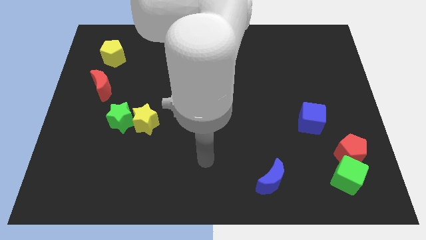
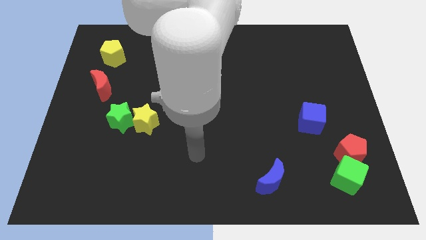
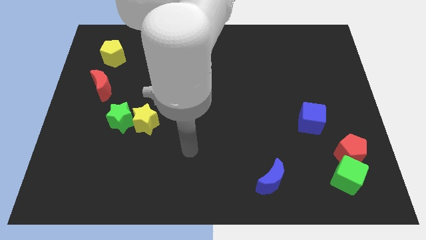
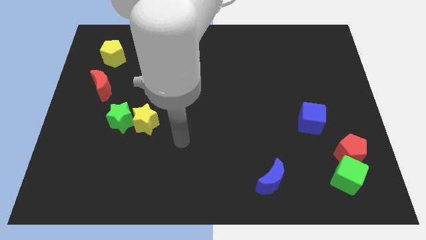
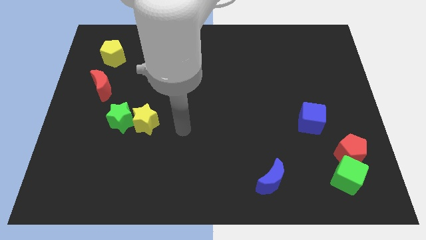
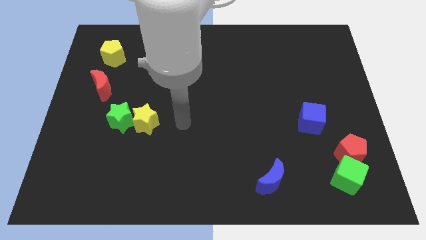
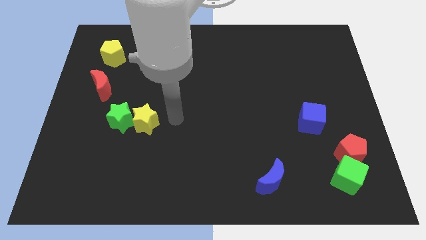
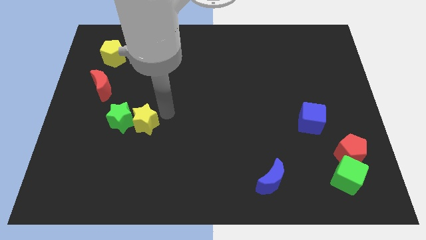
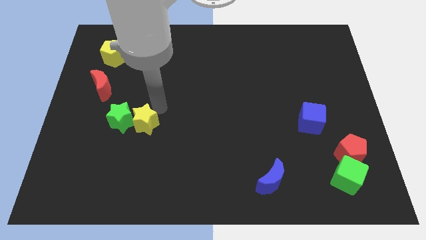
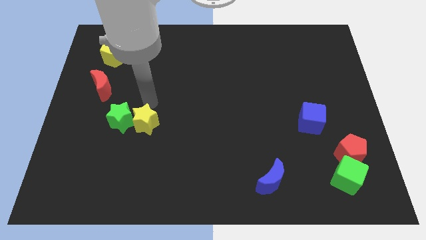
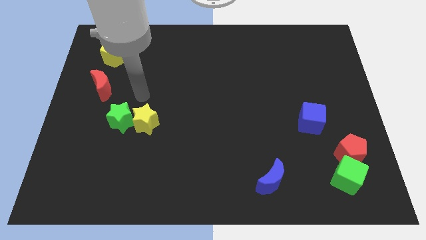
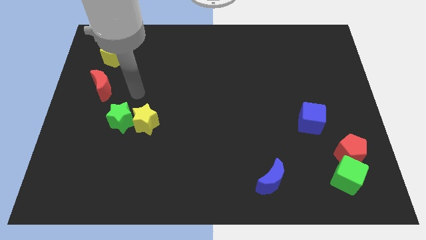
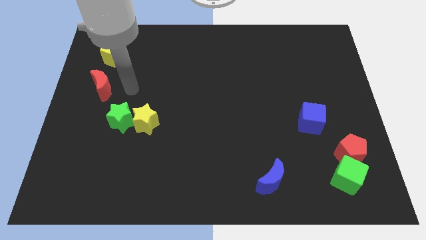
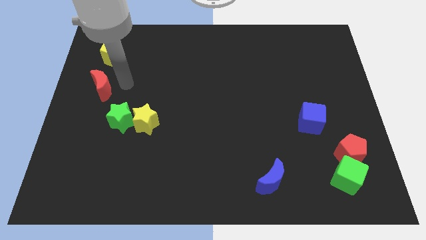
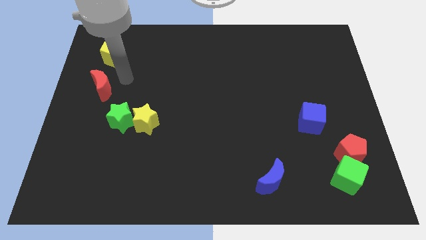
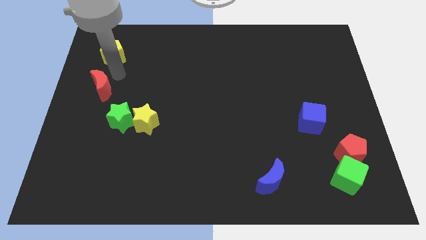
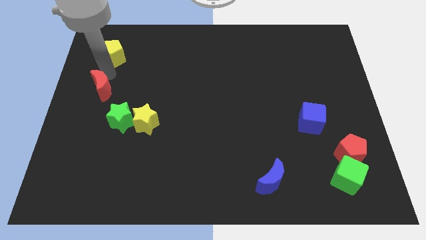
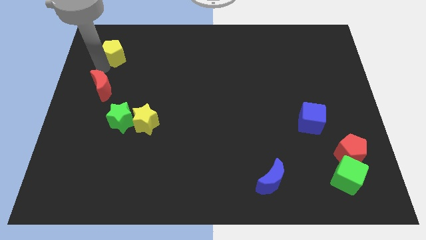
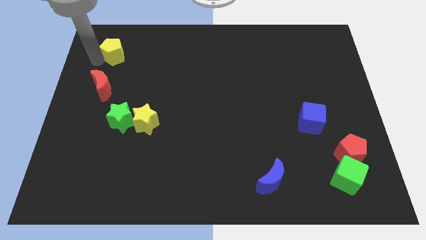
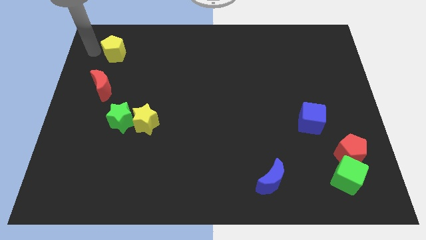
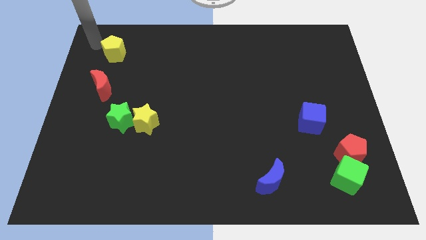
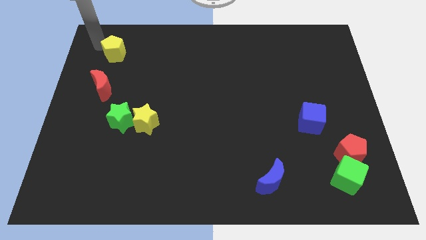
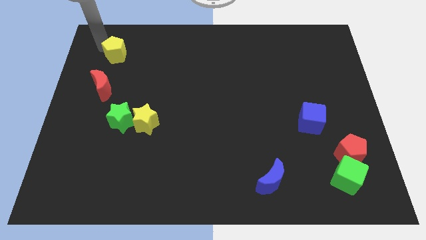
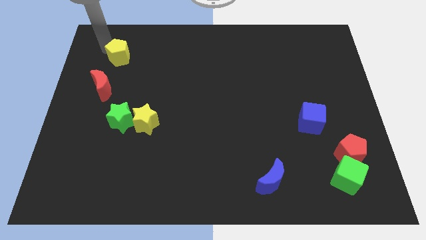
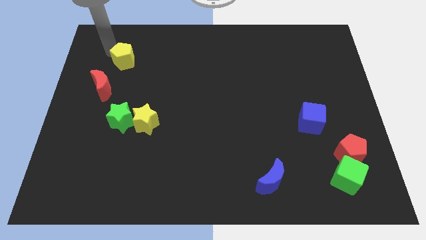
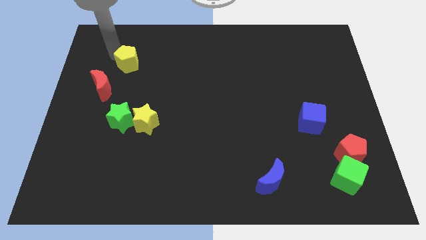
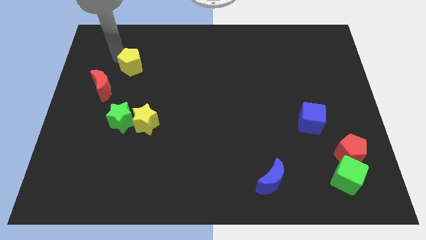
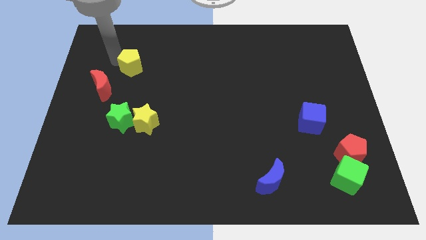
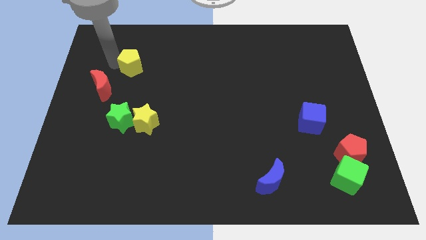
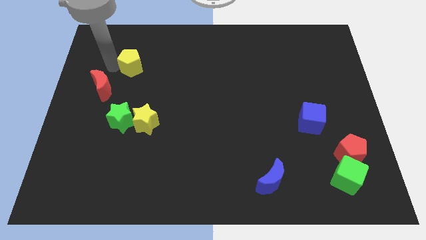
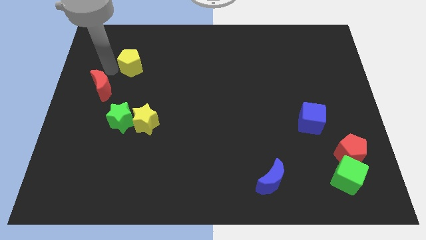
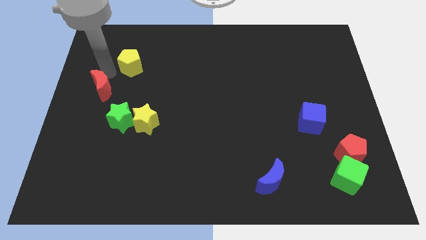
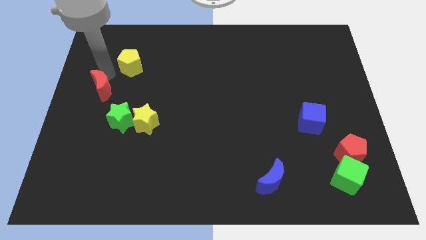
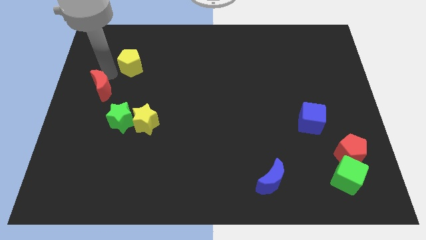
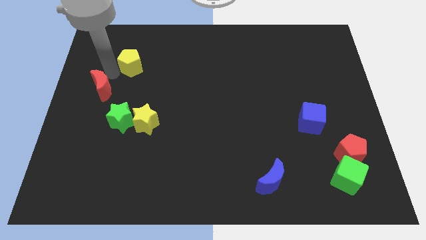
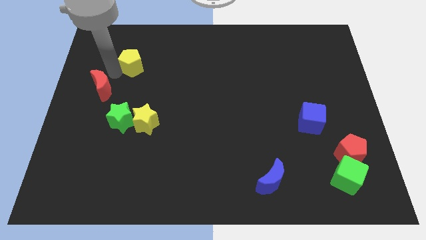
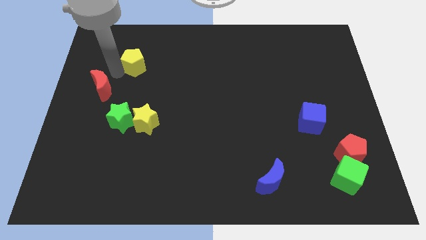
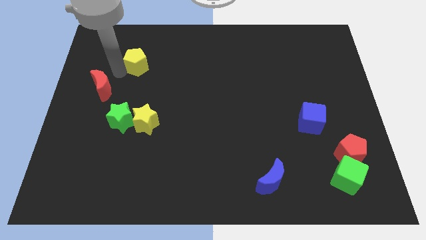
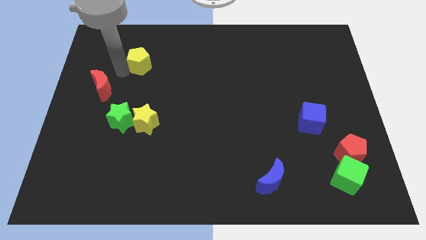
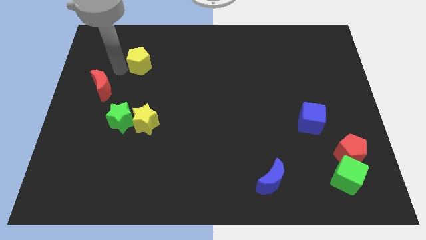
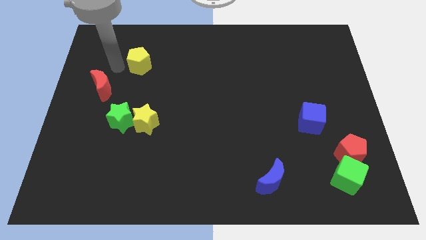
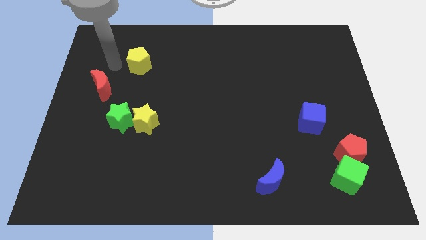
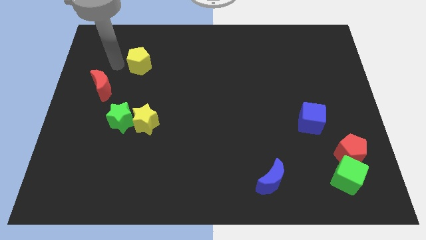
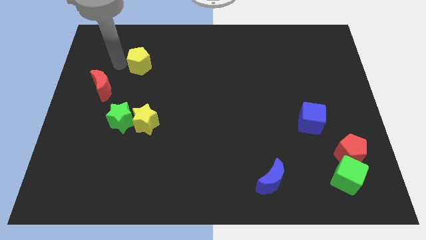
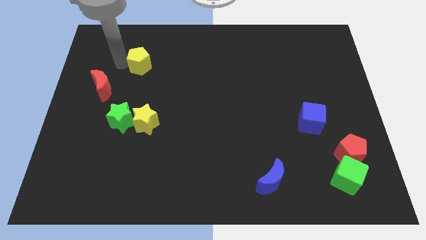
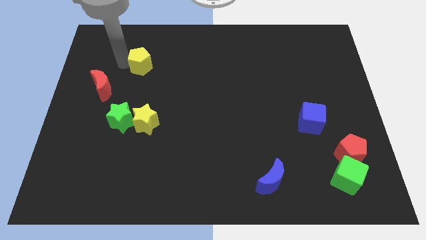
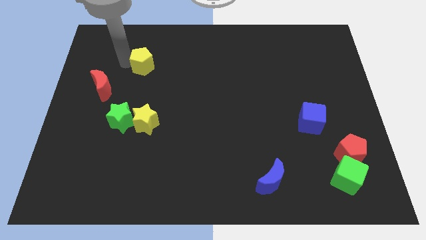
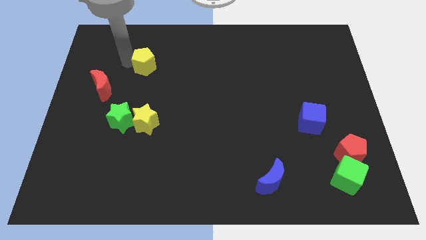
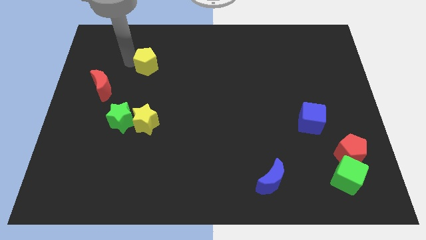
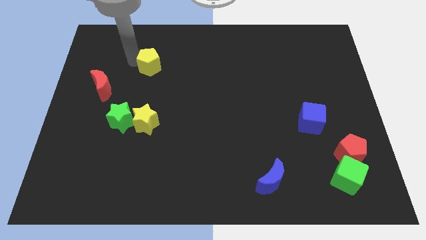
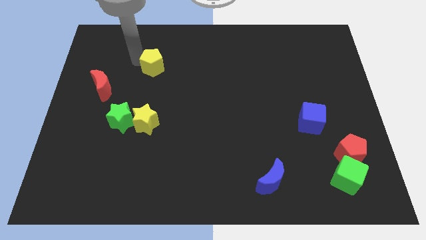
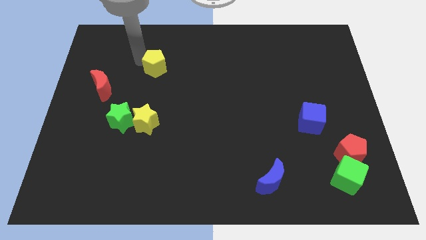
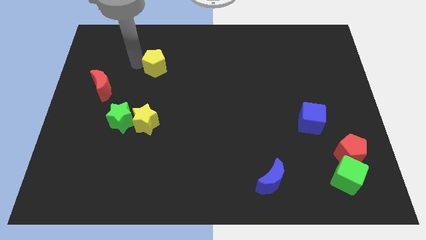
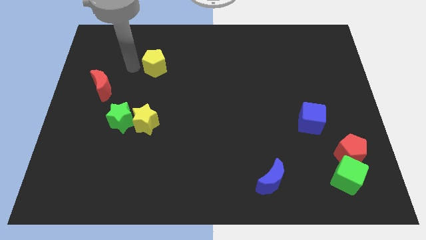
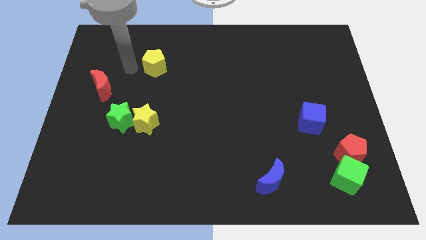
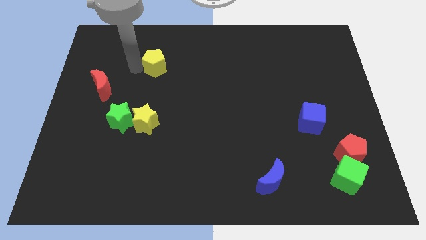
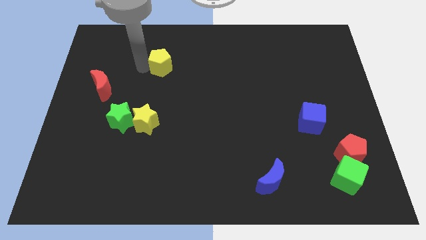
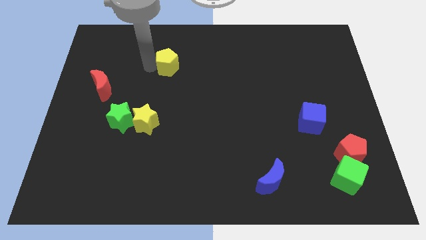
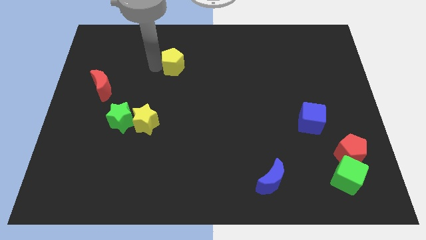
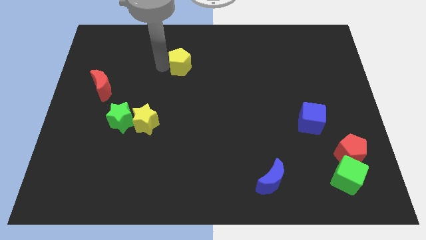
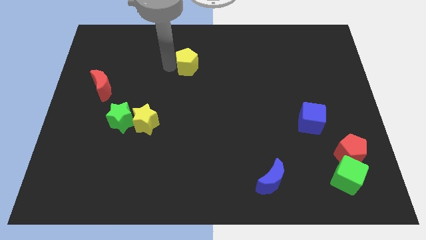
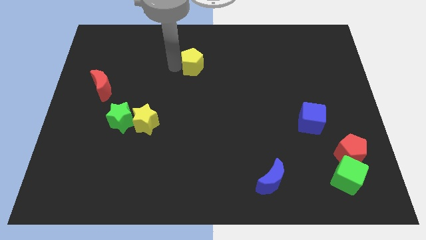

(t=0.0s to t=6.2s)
push the yellow pentagon to the right

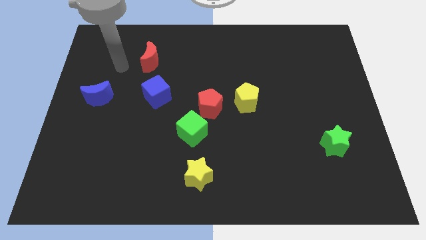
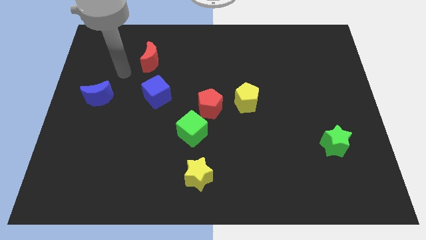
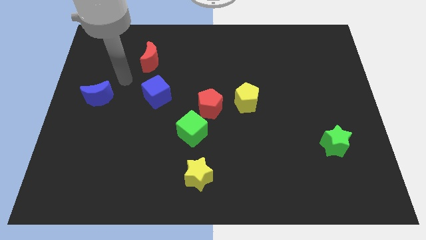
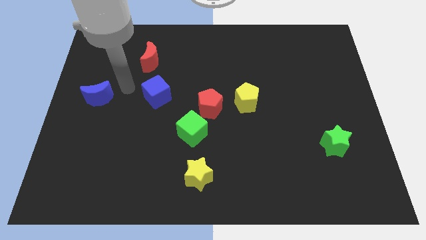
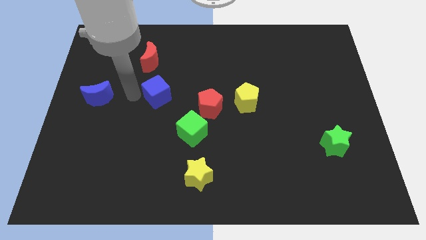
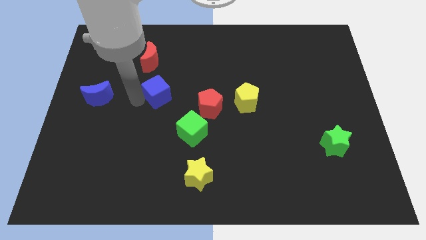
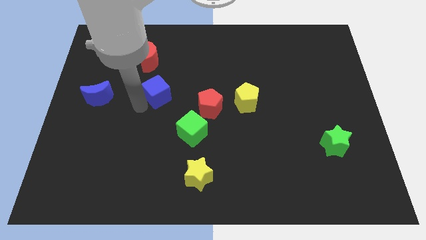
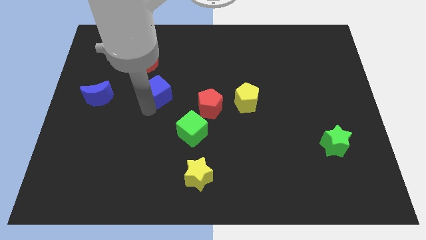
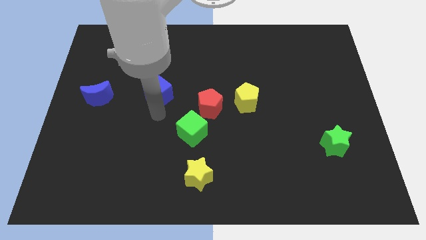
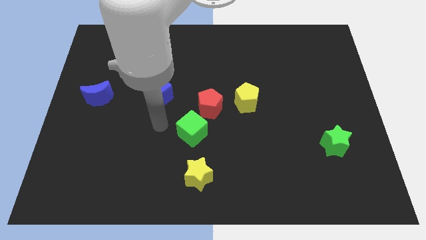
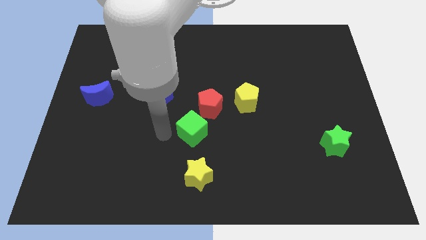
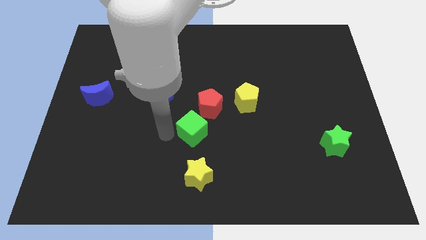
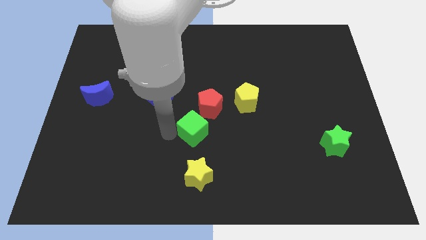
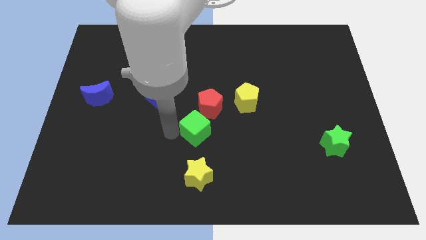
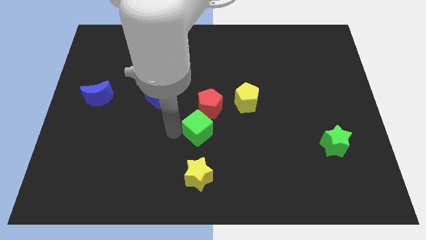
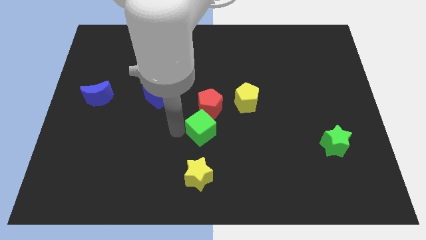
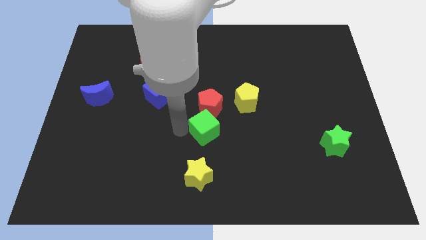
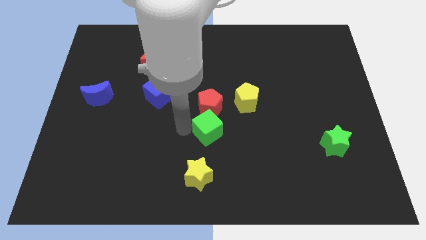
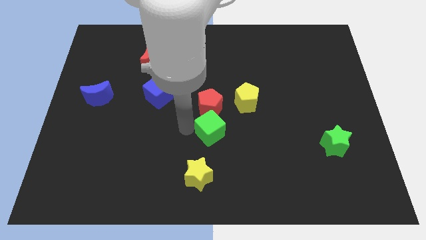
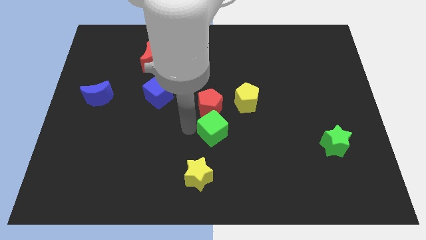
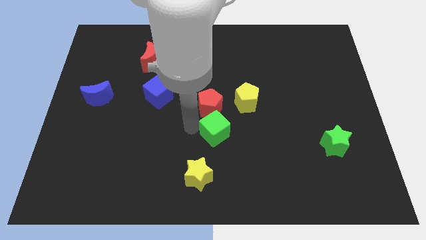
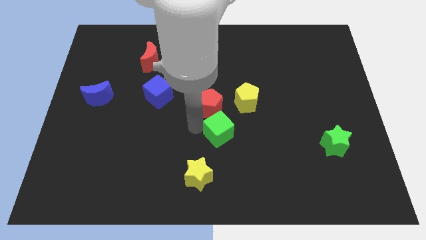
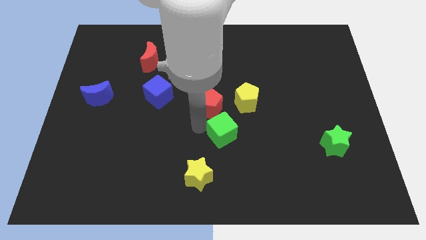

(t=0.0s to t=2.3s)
slightly slide the green cube to the right
